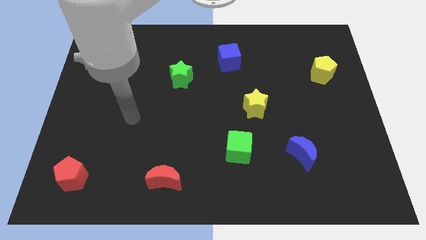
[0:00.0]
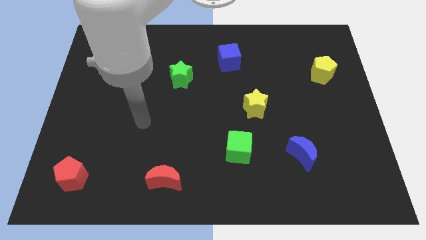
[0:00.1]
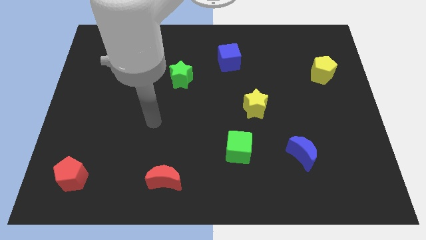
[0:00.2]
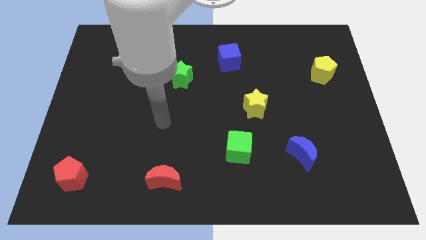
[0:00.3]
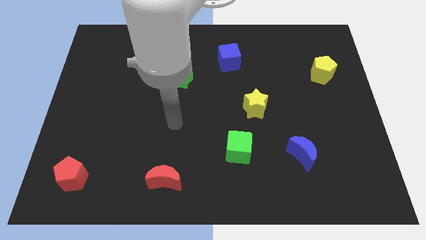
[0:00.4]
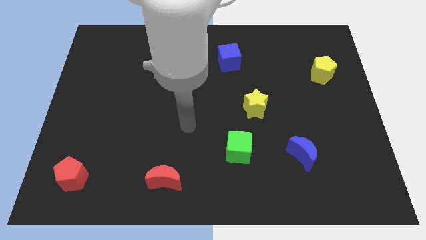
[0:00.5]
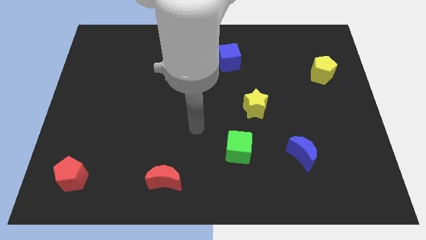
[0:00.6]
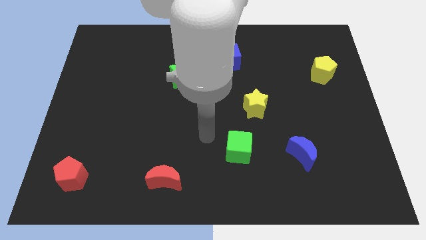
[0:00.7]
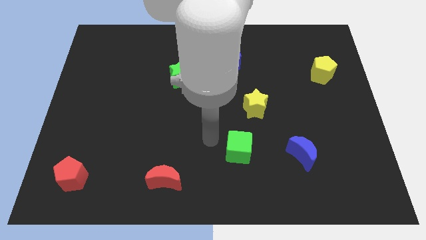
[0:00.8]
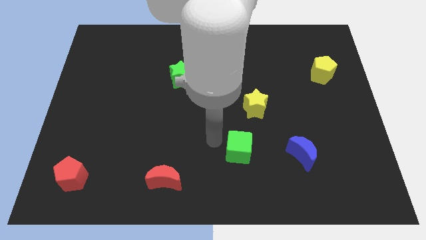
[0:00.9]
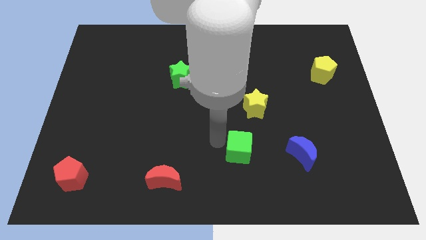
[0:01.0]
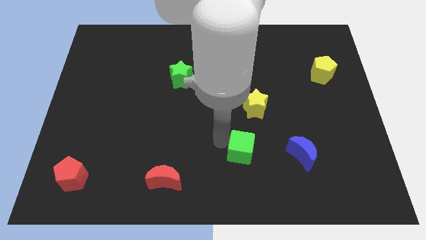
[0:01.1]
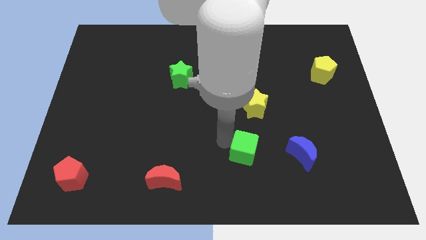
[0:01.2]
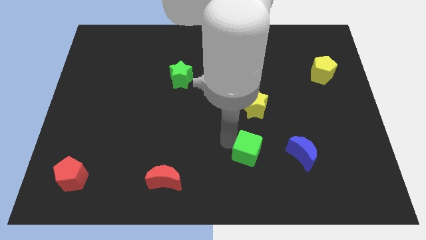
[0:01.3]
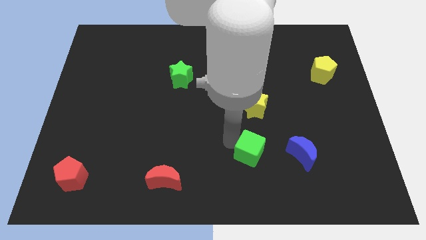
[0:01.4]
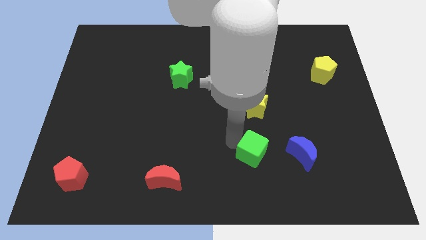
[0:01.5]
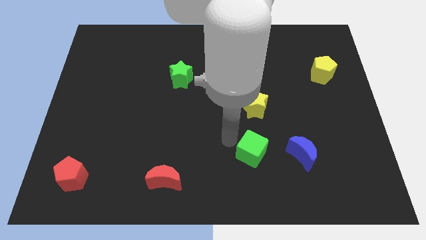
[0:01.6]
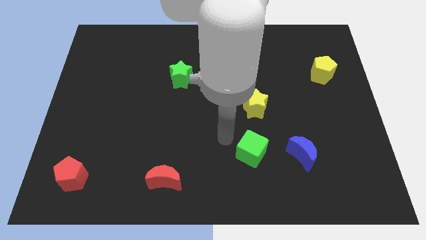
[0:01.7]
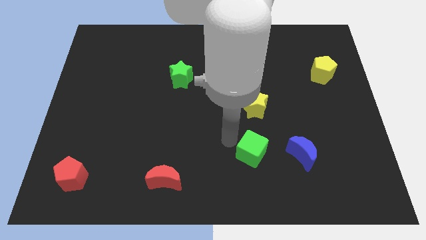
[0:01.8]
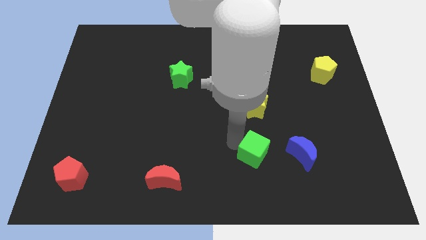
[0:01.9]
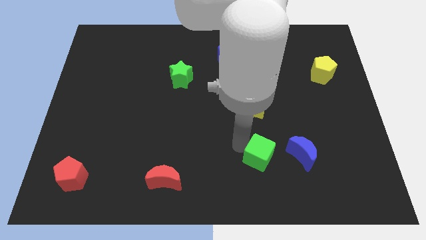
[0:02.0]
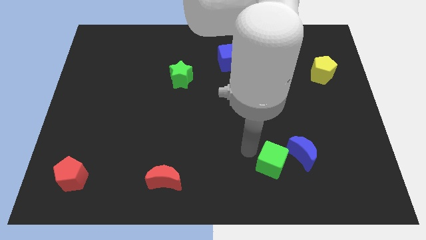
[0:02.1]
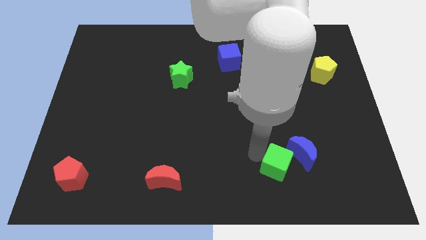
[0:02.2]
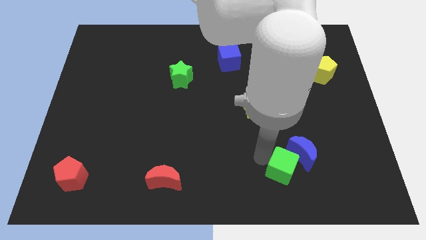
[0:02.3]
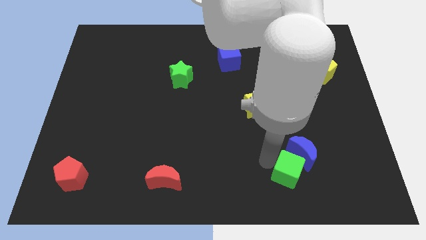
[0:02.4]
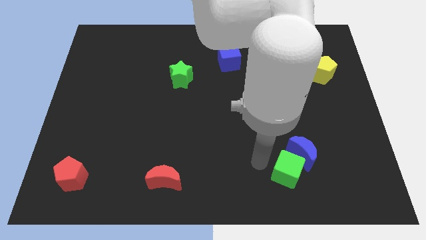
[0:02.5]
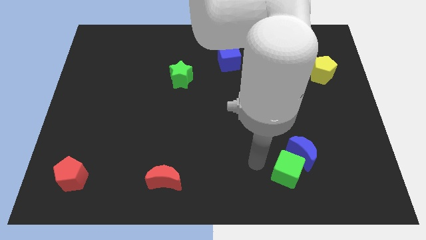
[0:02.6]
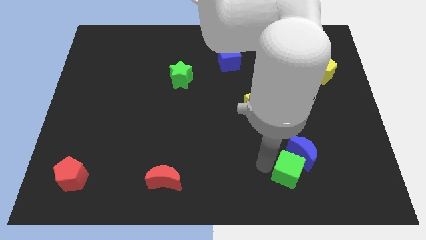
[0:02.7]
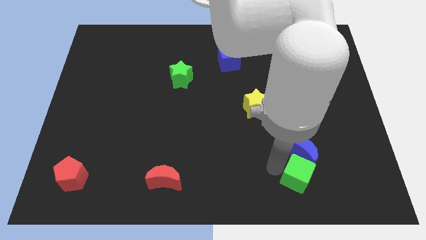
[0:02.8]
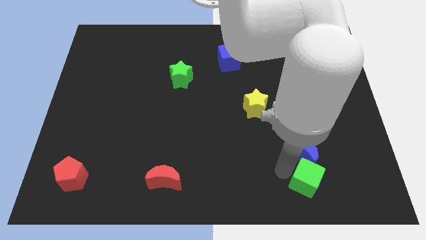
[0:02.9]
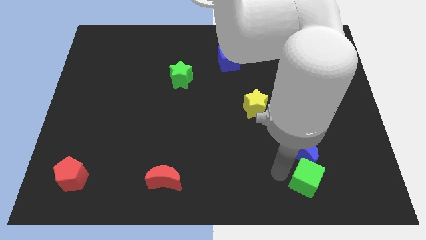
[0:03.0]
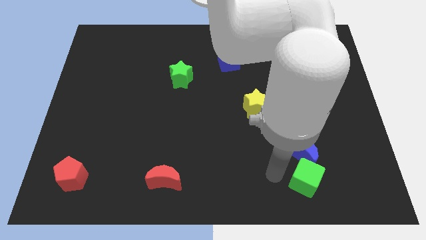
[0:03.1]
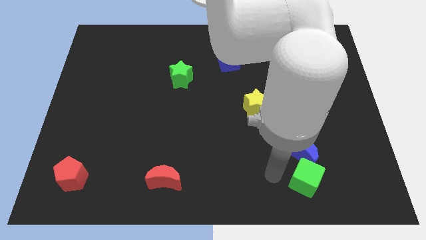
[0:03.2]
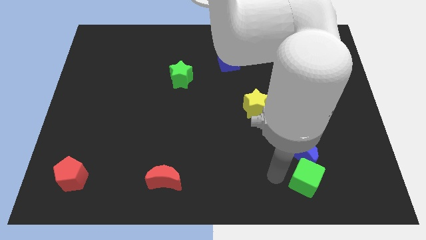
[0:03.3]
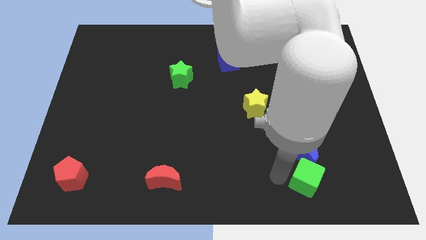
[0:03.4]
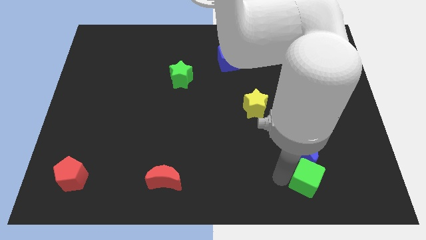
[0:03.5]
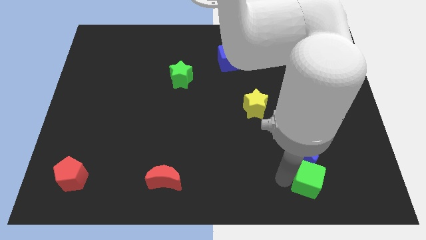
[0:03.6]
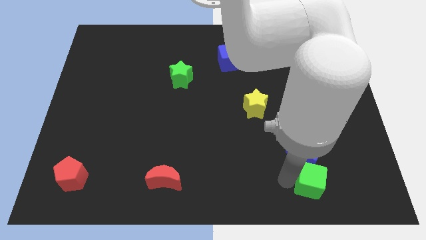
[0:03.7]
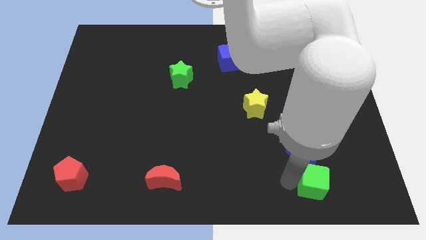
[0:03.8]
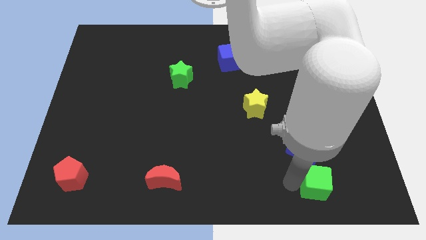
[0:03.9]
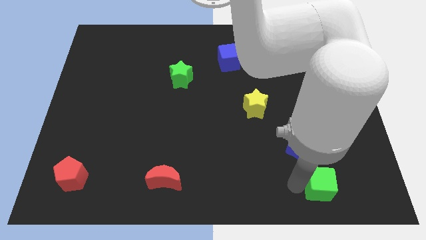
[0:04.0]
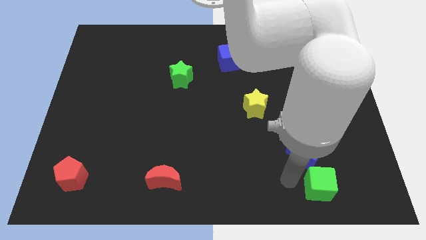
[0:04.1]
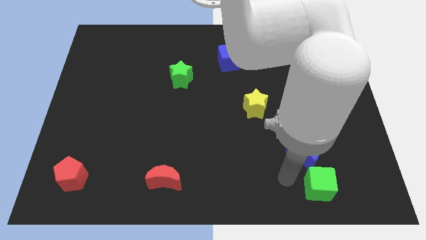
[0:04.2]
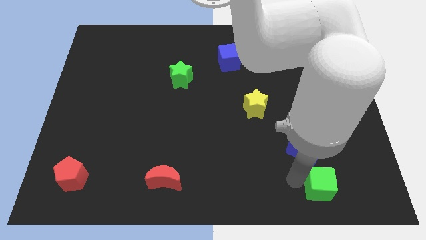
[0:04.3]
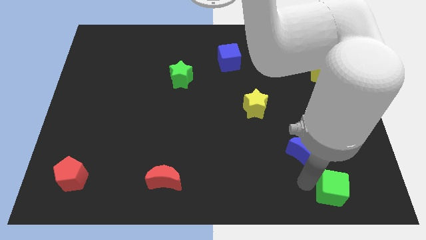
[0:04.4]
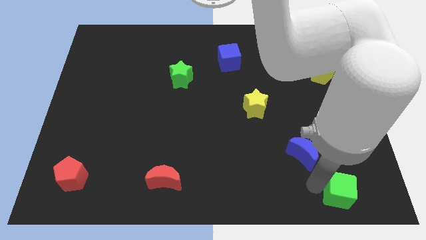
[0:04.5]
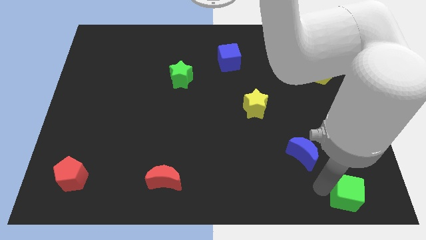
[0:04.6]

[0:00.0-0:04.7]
move the green cube to the bottom right of the board

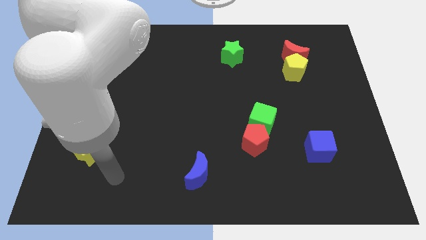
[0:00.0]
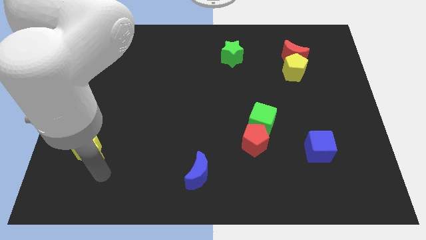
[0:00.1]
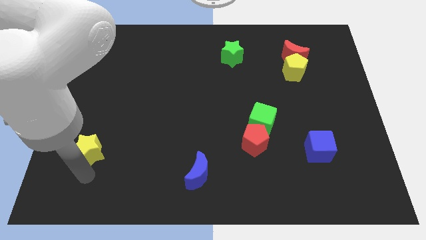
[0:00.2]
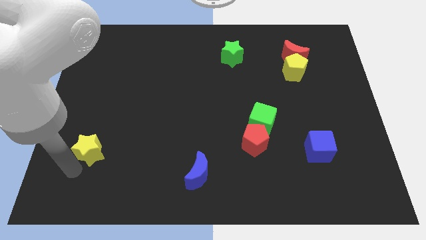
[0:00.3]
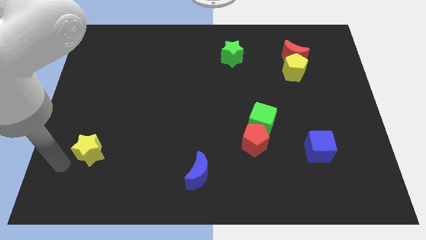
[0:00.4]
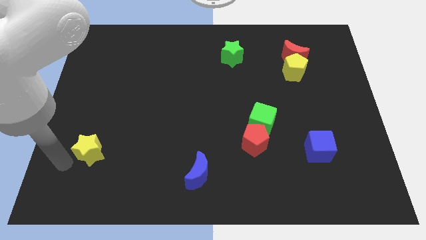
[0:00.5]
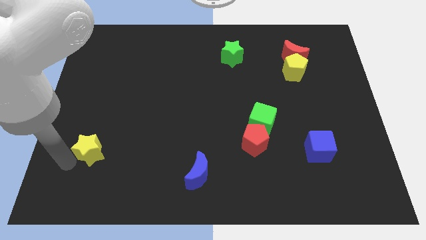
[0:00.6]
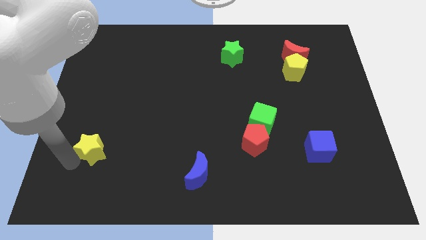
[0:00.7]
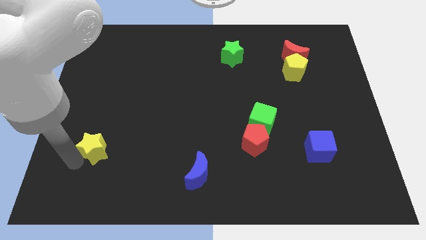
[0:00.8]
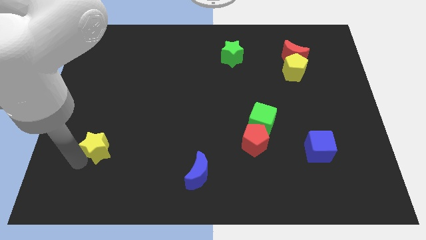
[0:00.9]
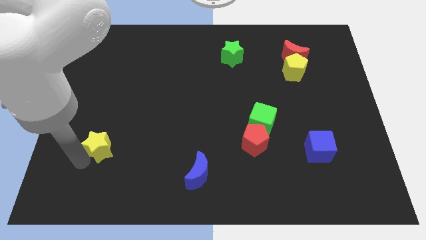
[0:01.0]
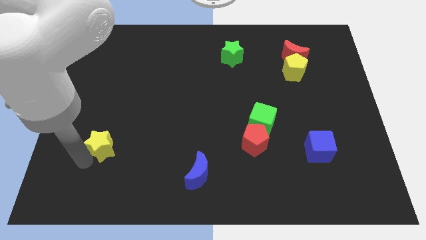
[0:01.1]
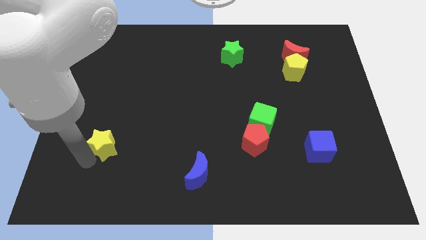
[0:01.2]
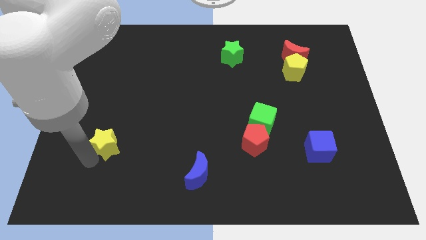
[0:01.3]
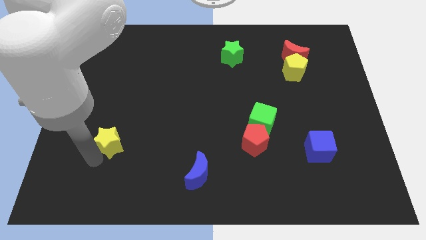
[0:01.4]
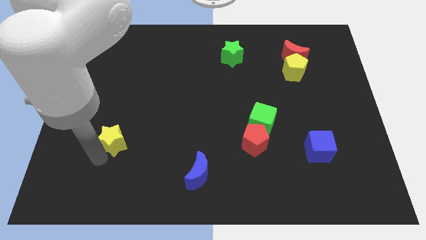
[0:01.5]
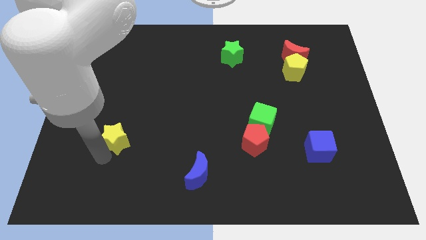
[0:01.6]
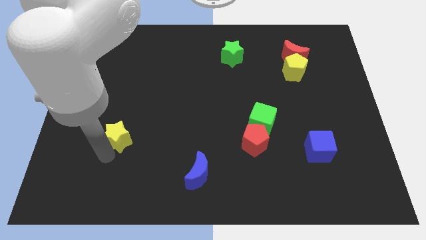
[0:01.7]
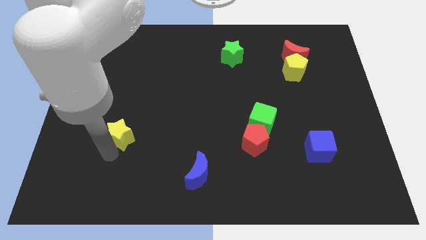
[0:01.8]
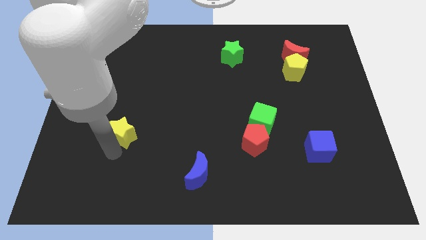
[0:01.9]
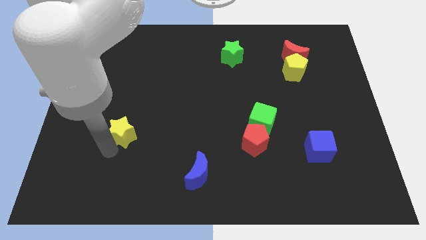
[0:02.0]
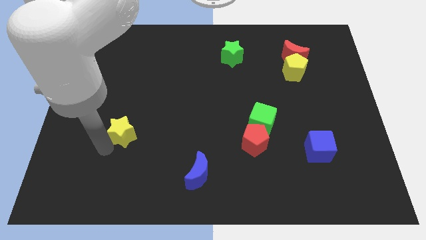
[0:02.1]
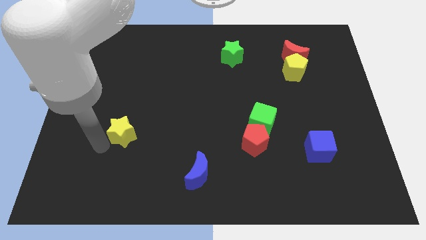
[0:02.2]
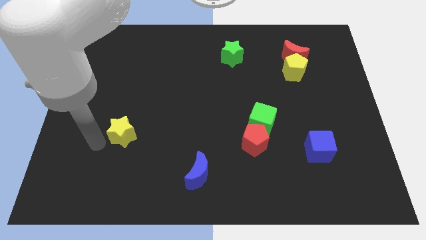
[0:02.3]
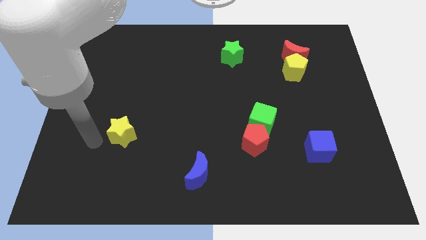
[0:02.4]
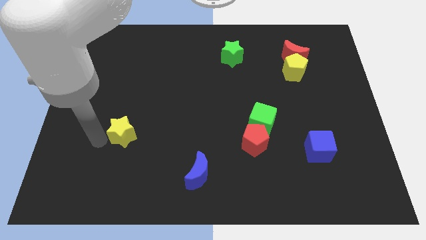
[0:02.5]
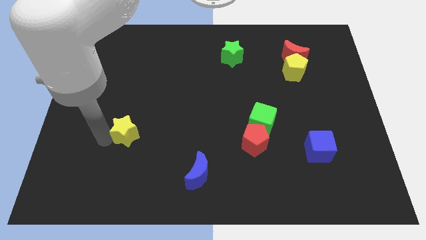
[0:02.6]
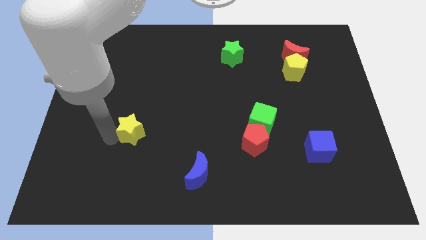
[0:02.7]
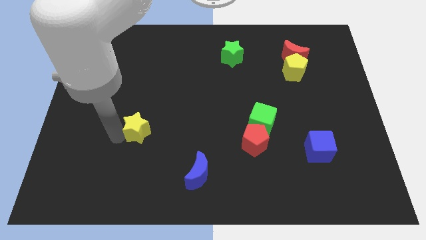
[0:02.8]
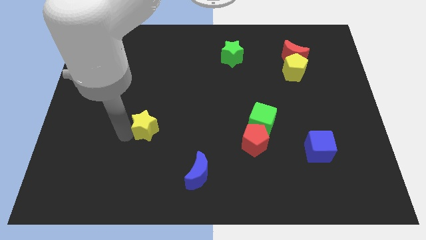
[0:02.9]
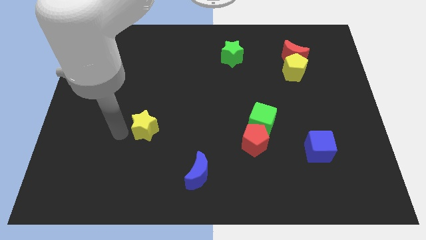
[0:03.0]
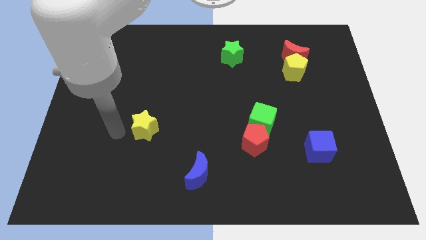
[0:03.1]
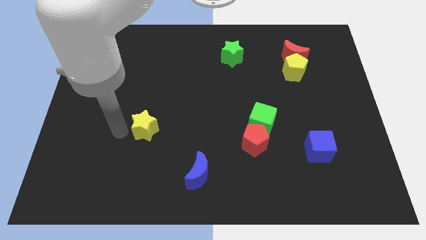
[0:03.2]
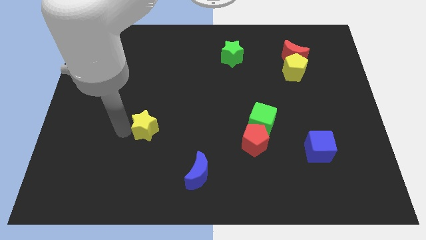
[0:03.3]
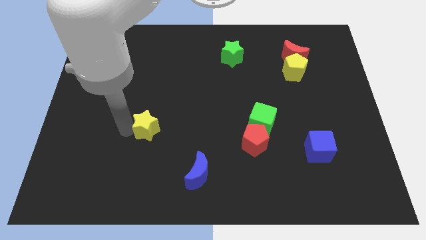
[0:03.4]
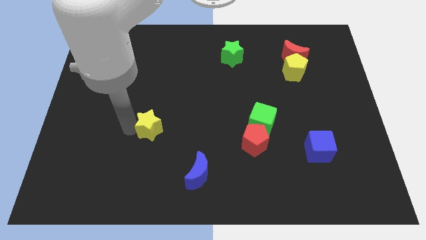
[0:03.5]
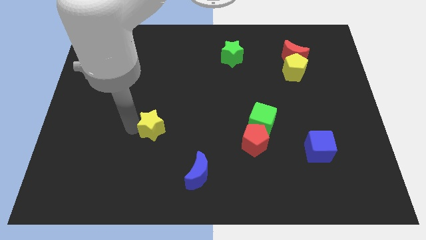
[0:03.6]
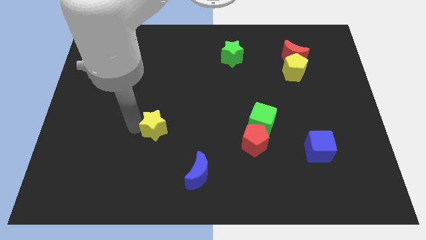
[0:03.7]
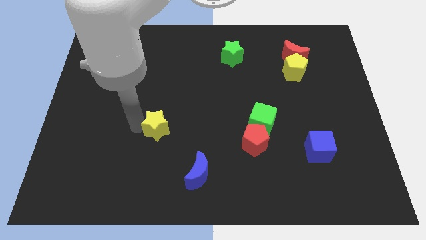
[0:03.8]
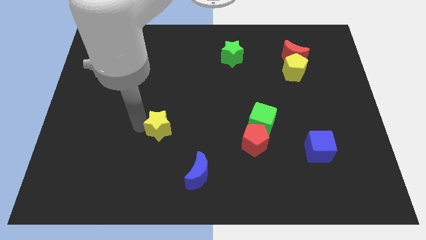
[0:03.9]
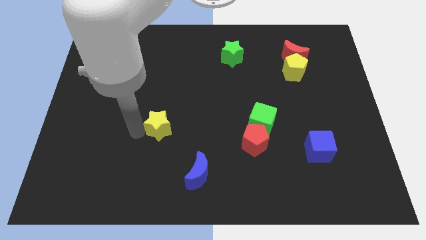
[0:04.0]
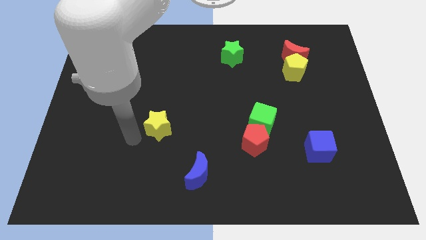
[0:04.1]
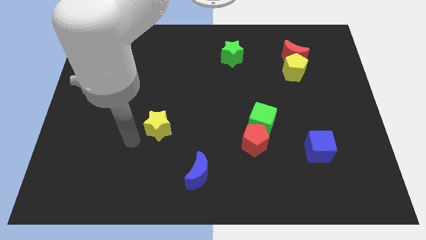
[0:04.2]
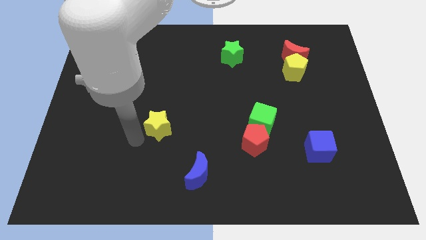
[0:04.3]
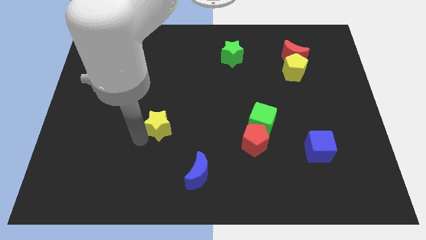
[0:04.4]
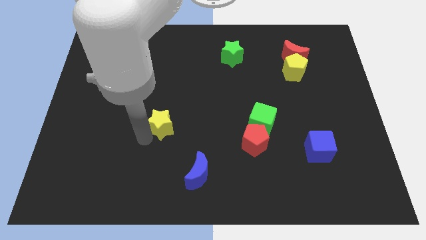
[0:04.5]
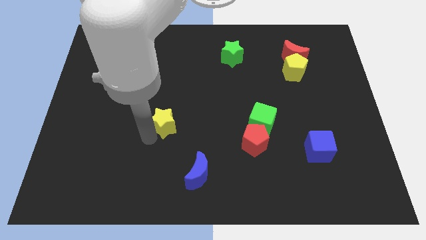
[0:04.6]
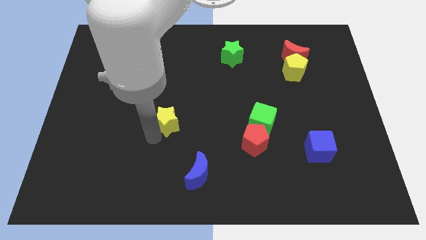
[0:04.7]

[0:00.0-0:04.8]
slide the yellow star to the middle
